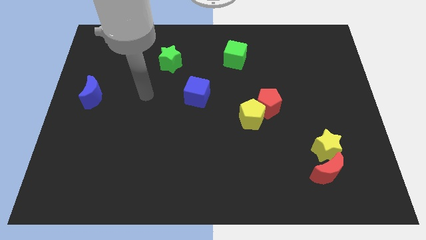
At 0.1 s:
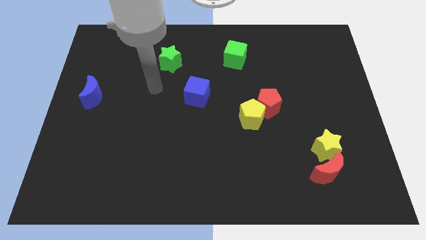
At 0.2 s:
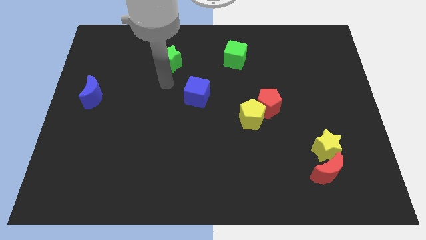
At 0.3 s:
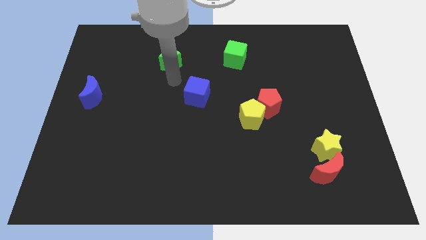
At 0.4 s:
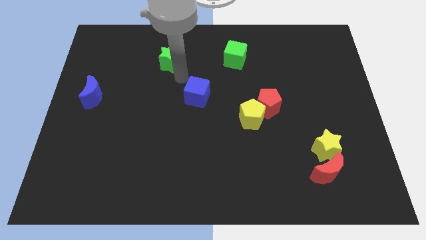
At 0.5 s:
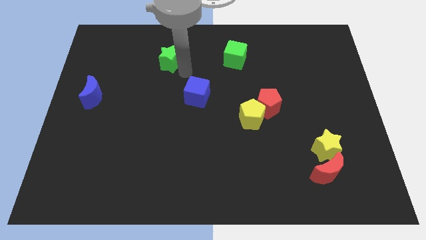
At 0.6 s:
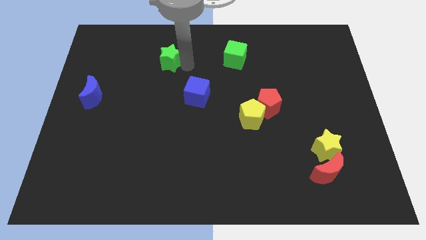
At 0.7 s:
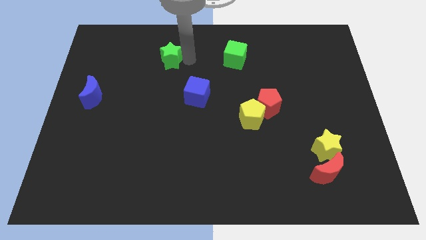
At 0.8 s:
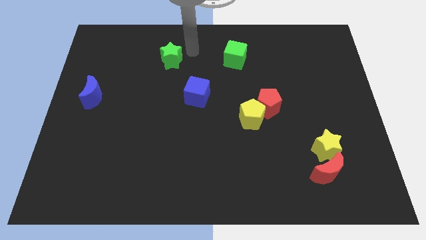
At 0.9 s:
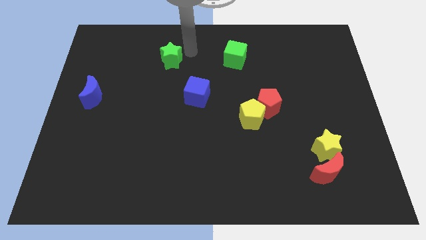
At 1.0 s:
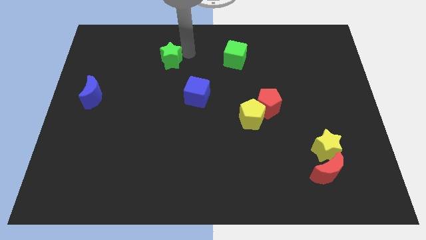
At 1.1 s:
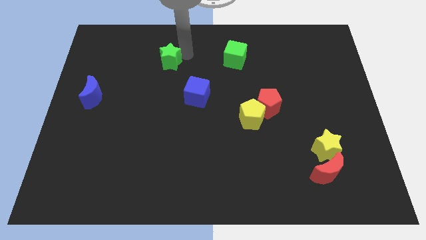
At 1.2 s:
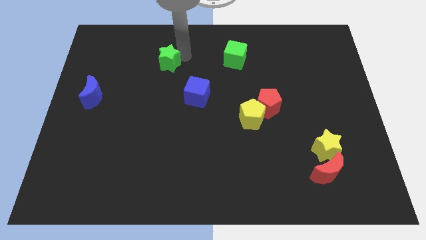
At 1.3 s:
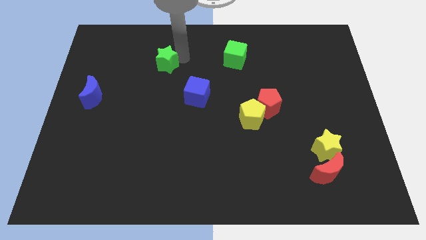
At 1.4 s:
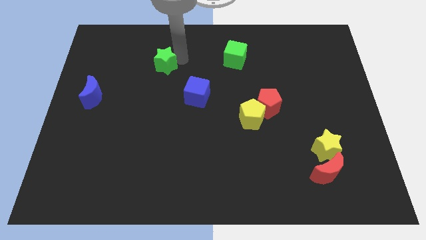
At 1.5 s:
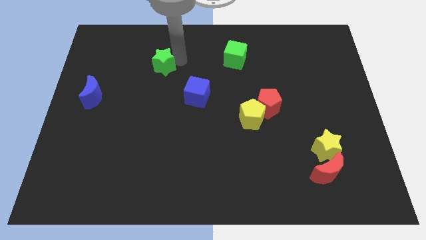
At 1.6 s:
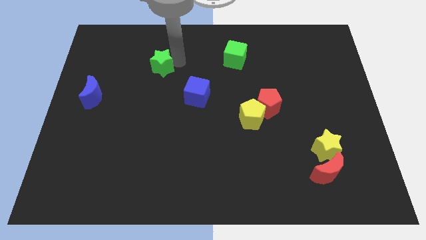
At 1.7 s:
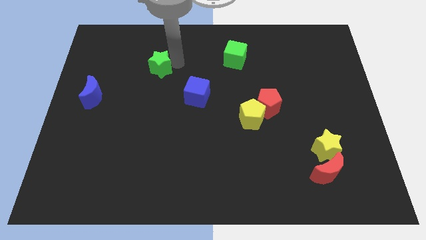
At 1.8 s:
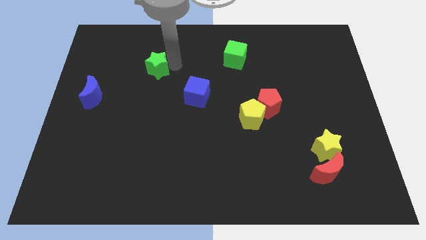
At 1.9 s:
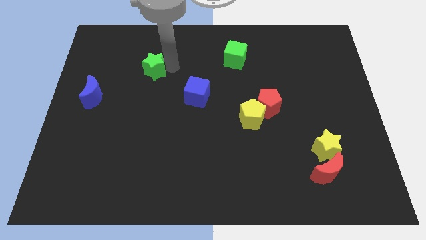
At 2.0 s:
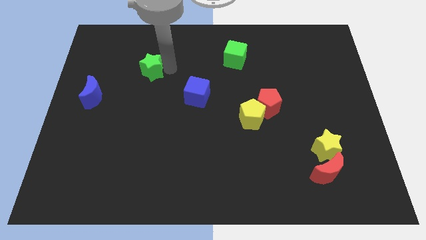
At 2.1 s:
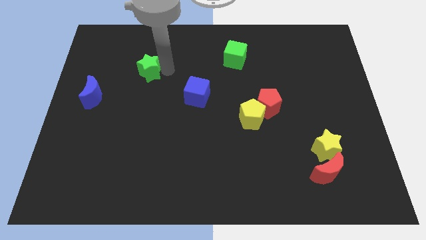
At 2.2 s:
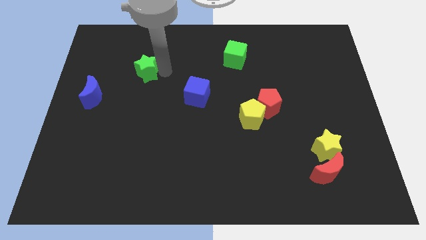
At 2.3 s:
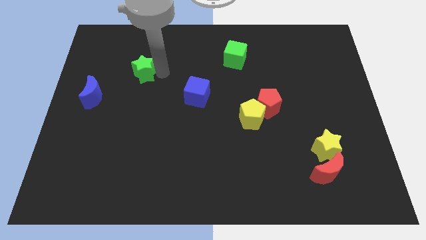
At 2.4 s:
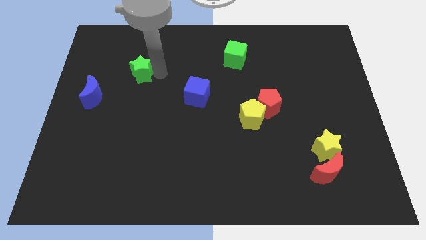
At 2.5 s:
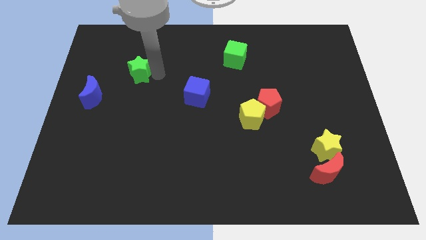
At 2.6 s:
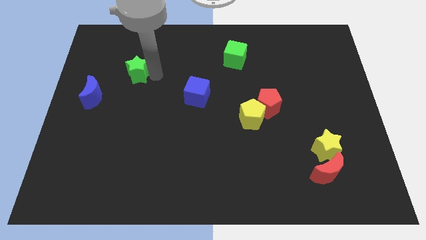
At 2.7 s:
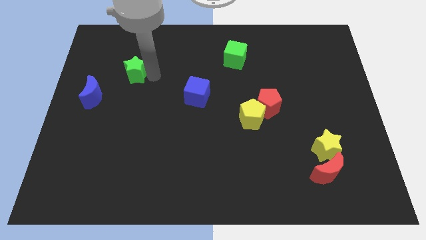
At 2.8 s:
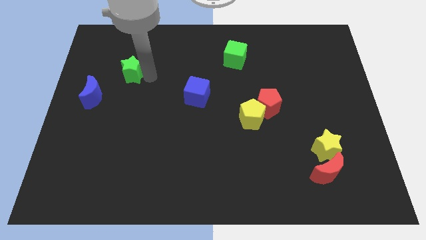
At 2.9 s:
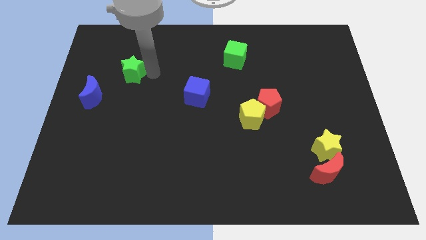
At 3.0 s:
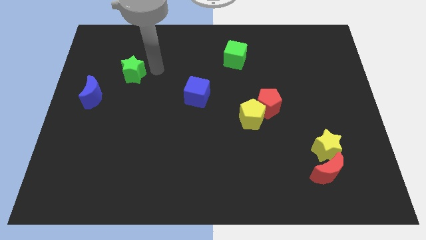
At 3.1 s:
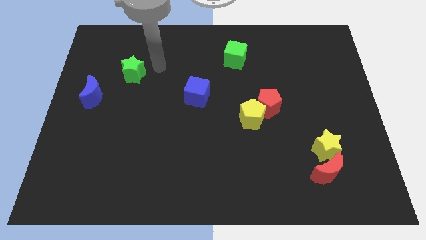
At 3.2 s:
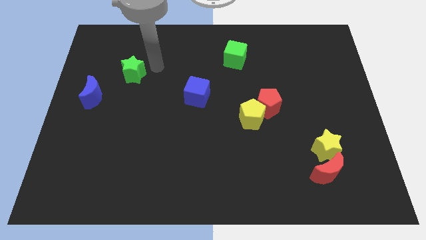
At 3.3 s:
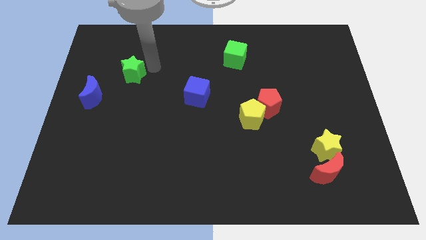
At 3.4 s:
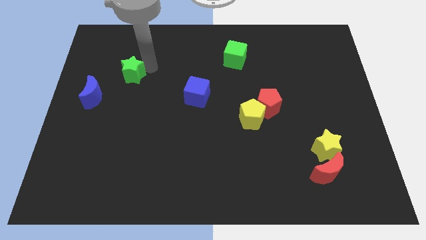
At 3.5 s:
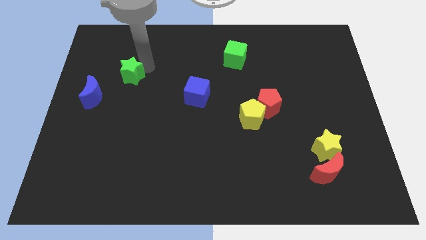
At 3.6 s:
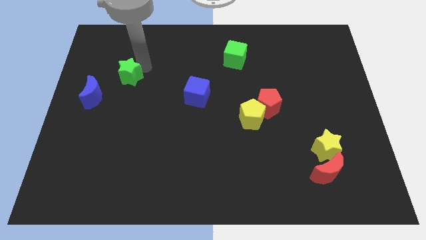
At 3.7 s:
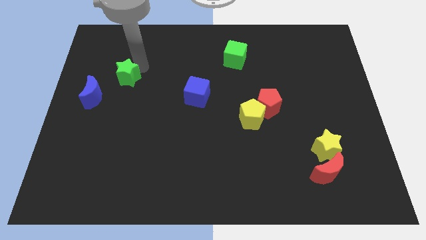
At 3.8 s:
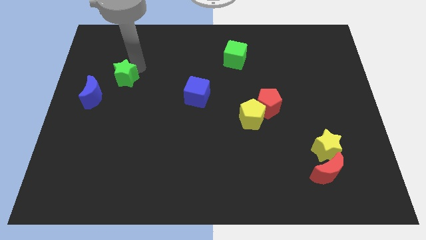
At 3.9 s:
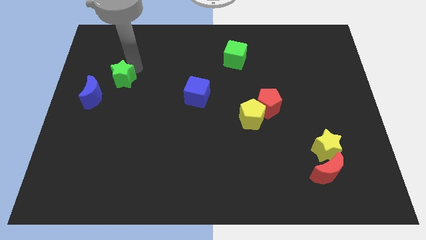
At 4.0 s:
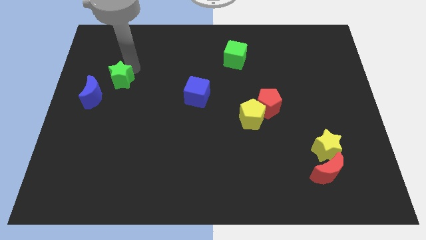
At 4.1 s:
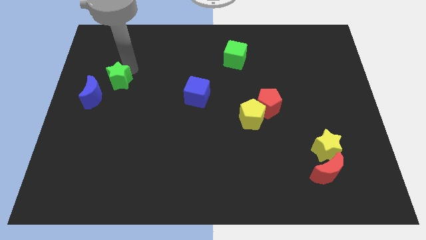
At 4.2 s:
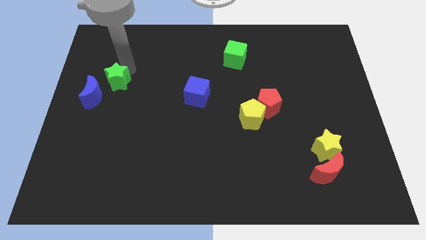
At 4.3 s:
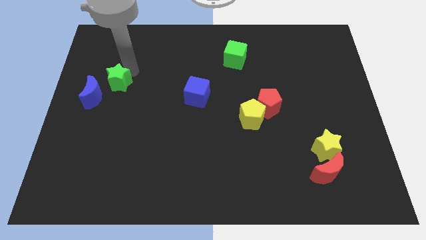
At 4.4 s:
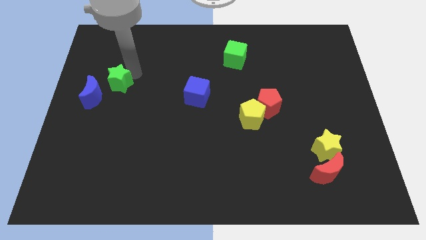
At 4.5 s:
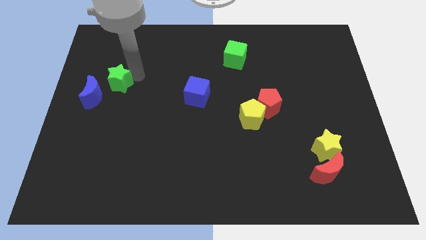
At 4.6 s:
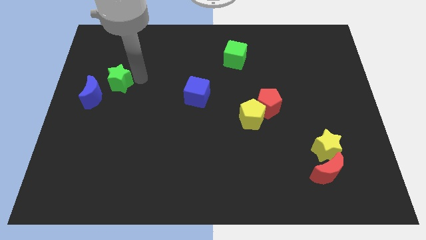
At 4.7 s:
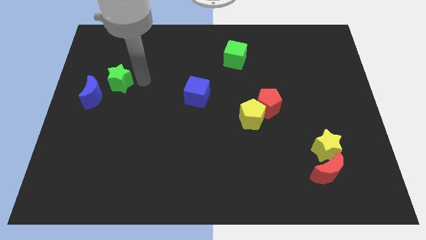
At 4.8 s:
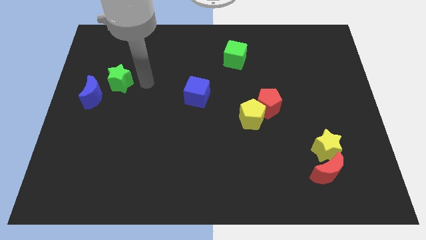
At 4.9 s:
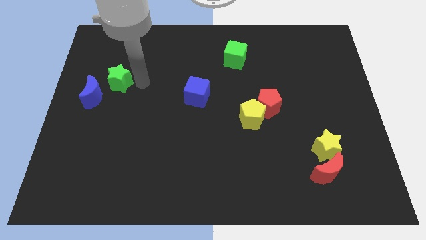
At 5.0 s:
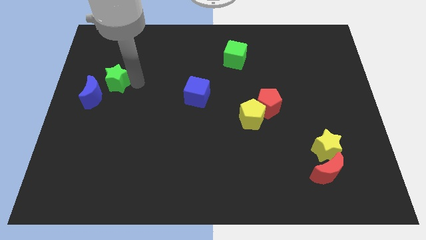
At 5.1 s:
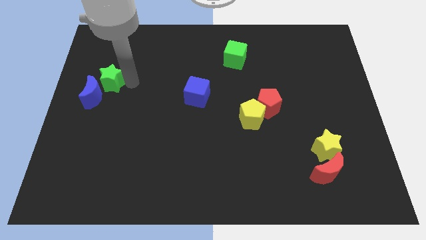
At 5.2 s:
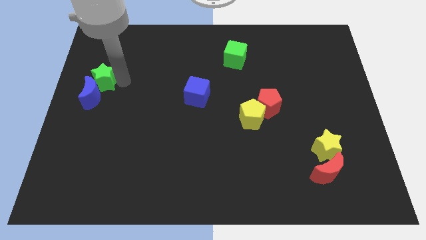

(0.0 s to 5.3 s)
put the green star to the left side

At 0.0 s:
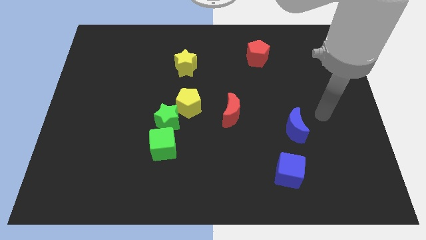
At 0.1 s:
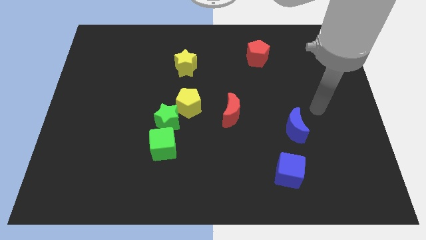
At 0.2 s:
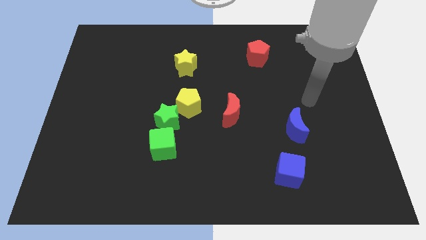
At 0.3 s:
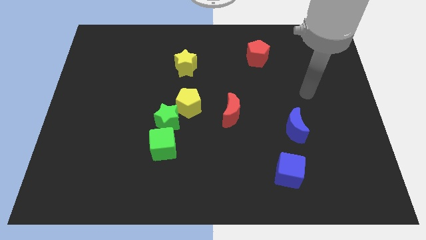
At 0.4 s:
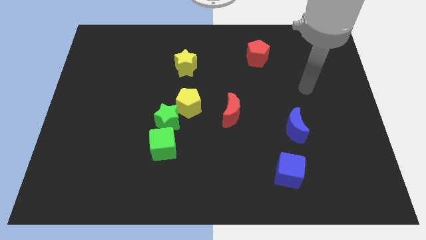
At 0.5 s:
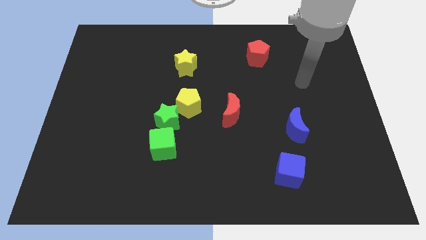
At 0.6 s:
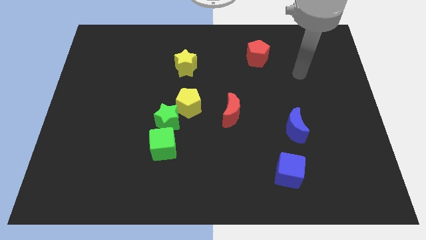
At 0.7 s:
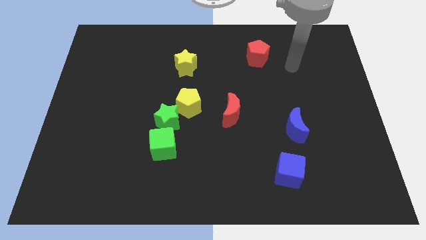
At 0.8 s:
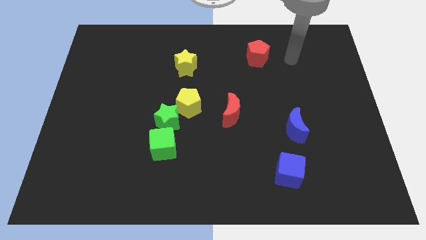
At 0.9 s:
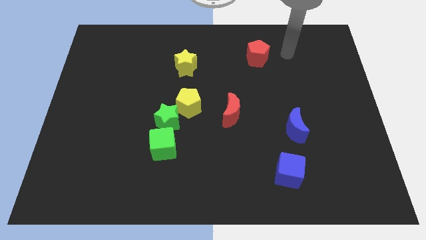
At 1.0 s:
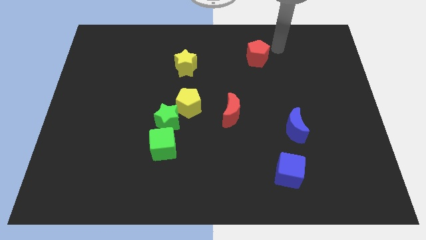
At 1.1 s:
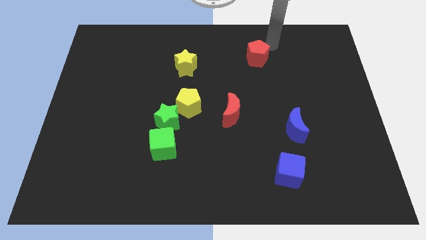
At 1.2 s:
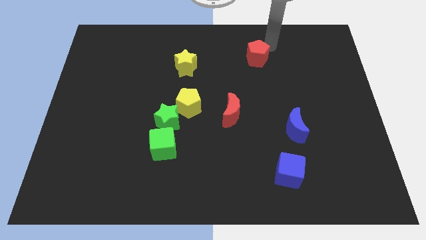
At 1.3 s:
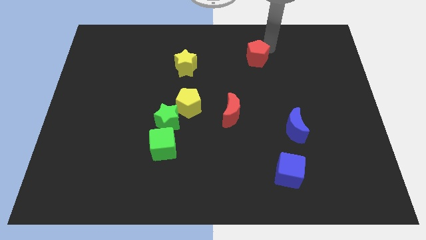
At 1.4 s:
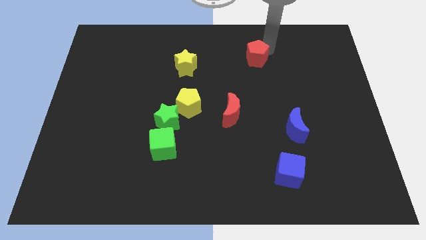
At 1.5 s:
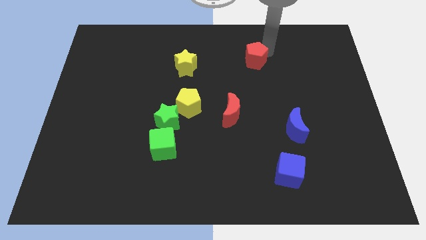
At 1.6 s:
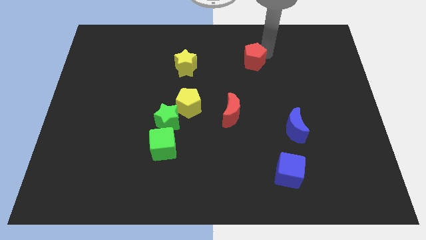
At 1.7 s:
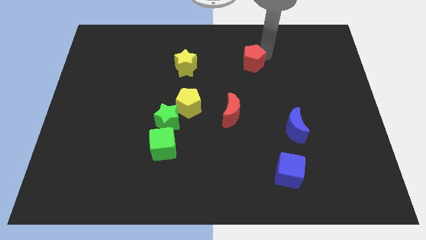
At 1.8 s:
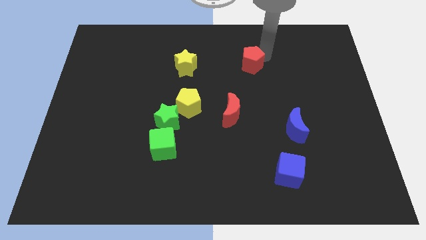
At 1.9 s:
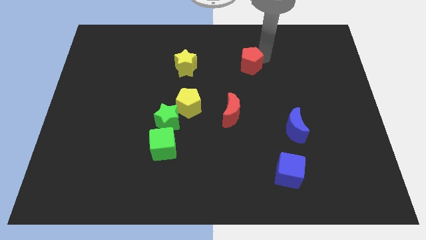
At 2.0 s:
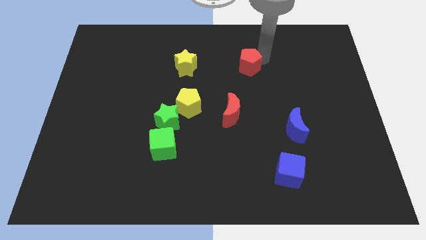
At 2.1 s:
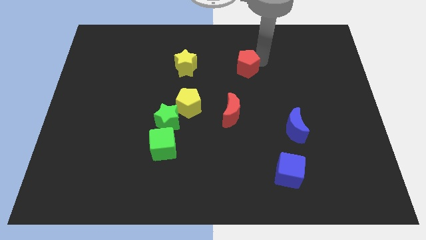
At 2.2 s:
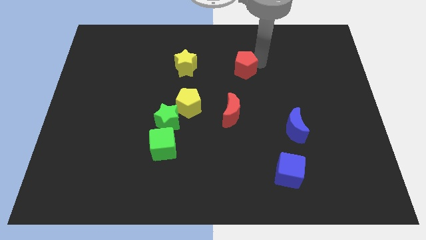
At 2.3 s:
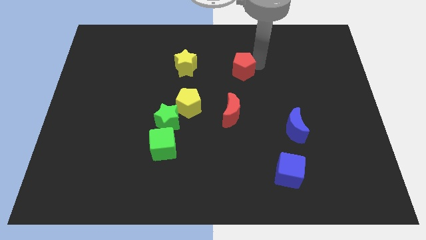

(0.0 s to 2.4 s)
push the red pentagon to the middle
